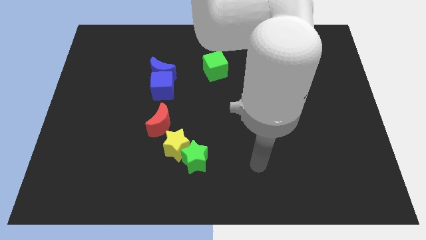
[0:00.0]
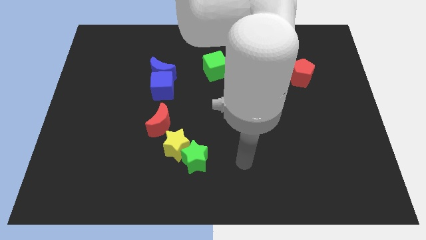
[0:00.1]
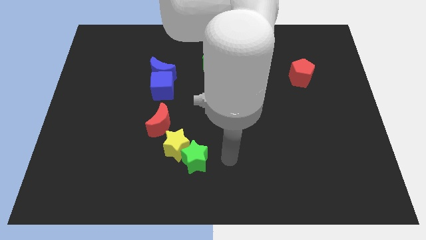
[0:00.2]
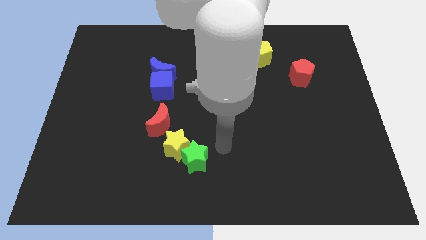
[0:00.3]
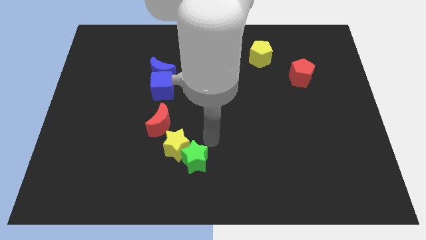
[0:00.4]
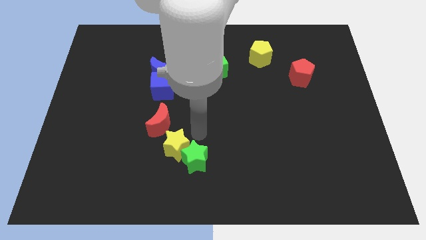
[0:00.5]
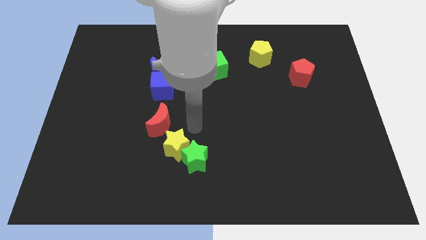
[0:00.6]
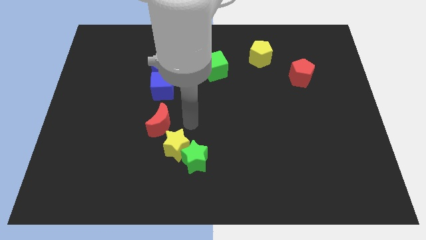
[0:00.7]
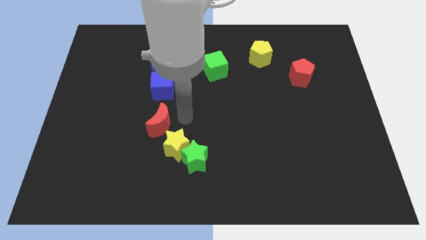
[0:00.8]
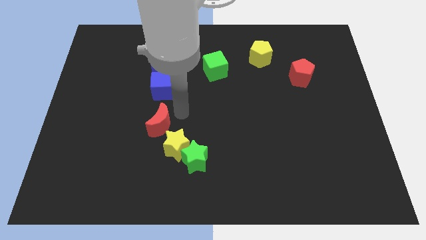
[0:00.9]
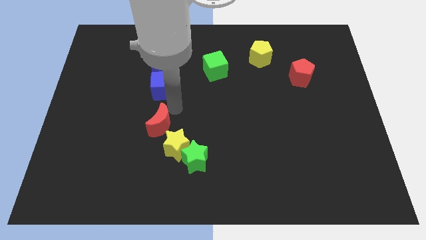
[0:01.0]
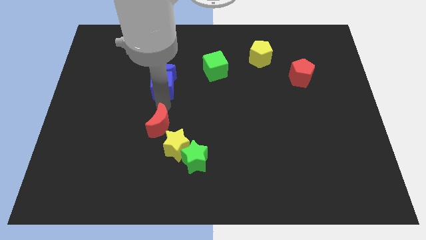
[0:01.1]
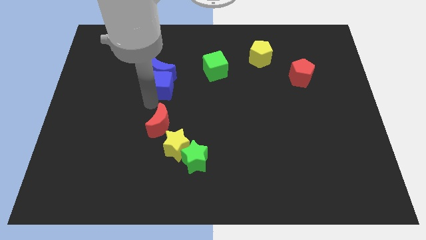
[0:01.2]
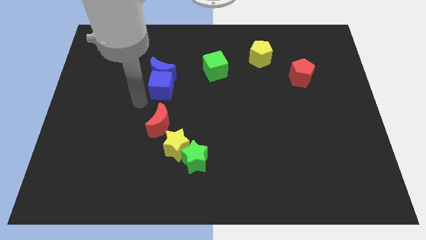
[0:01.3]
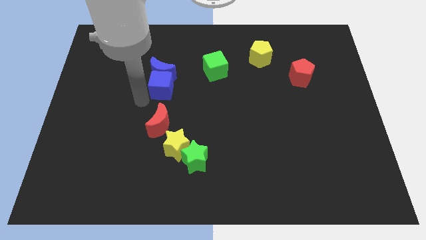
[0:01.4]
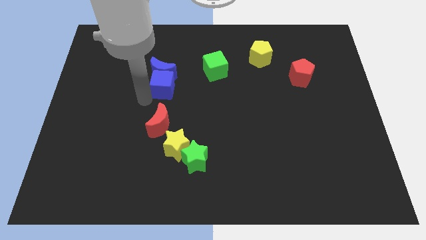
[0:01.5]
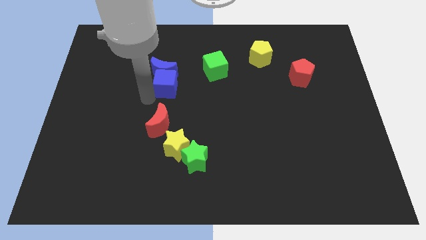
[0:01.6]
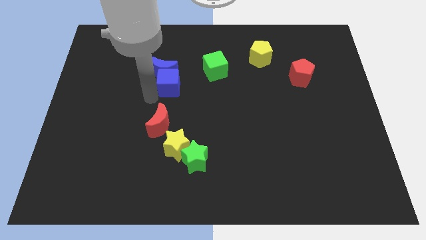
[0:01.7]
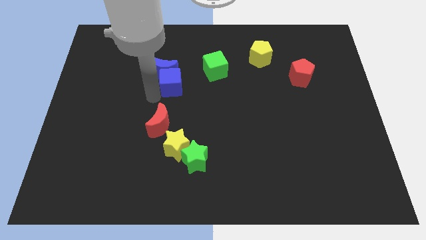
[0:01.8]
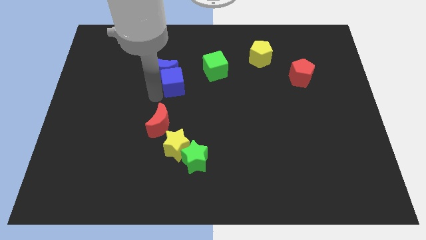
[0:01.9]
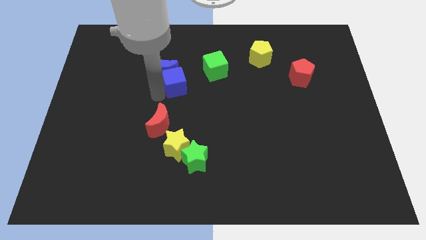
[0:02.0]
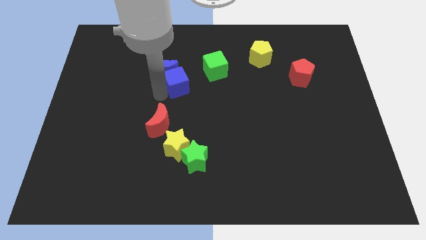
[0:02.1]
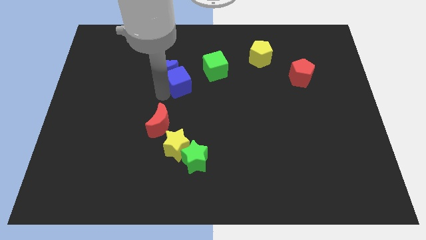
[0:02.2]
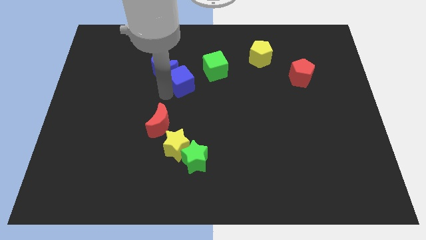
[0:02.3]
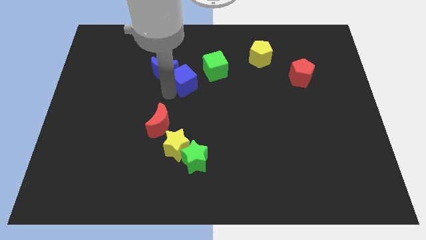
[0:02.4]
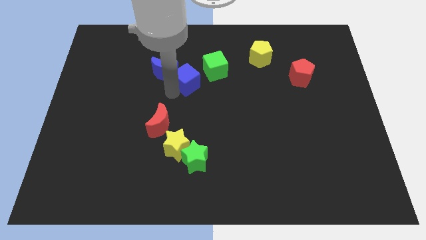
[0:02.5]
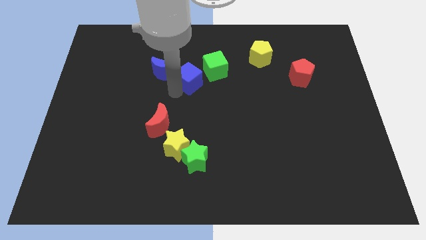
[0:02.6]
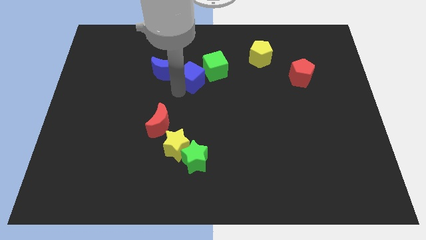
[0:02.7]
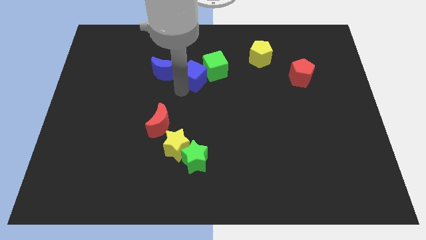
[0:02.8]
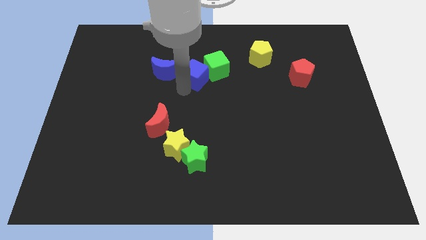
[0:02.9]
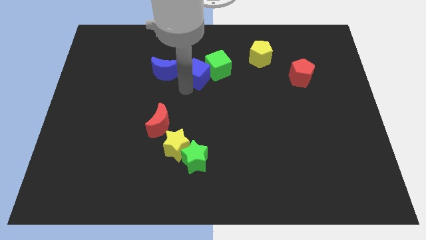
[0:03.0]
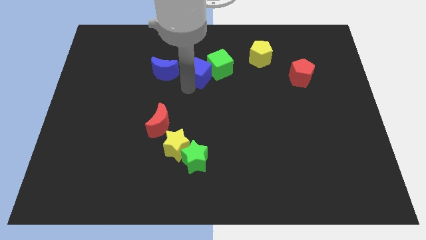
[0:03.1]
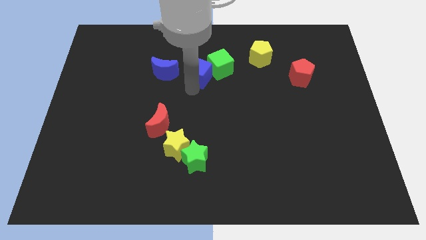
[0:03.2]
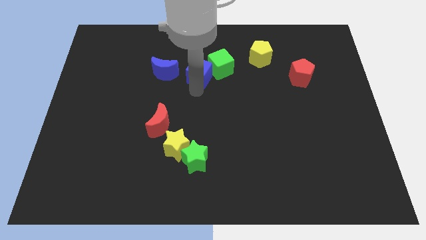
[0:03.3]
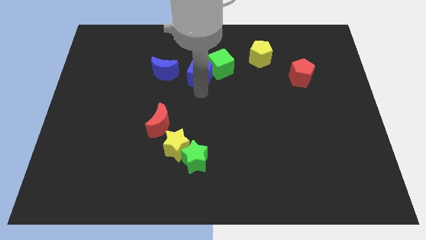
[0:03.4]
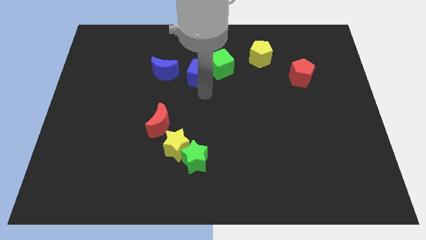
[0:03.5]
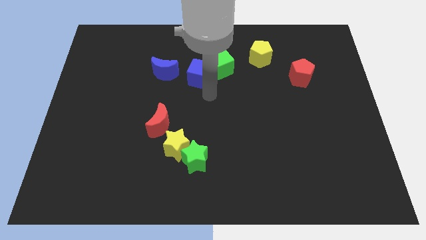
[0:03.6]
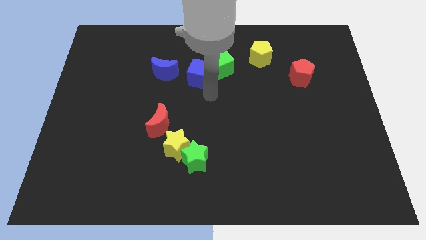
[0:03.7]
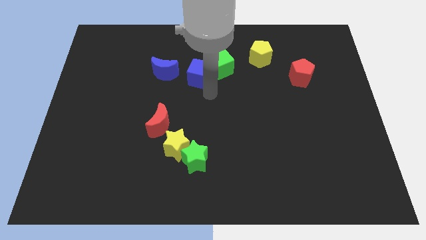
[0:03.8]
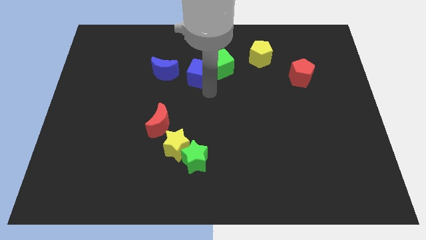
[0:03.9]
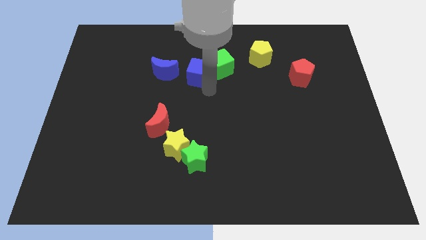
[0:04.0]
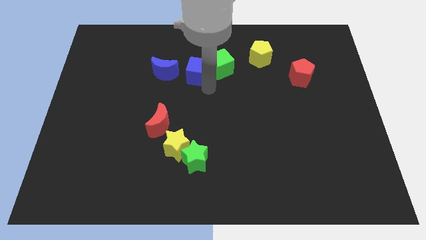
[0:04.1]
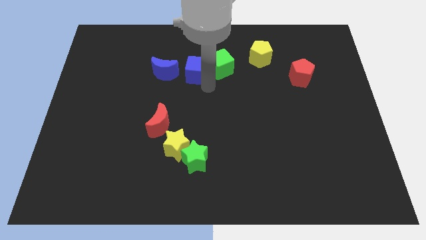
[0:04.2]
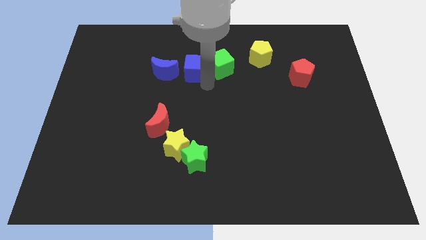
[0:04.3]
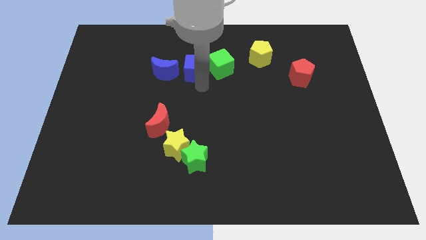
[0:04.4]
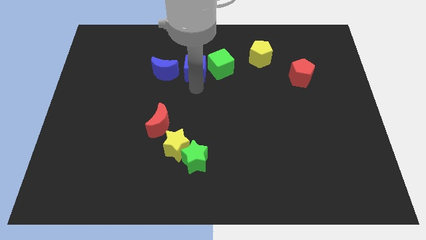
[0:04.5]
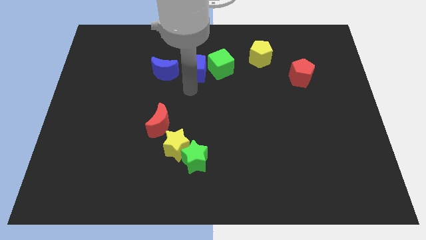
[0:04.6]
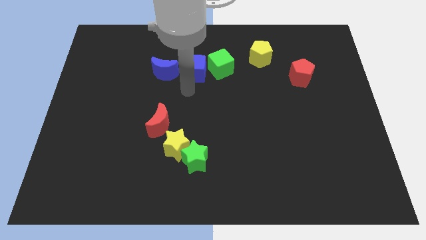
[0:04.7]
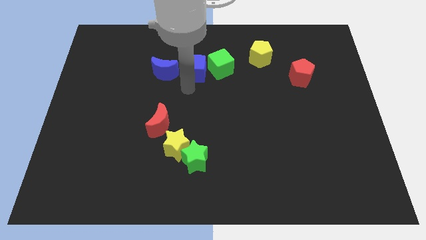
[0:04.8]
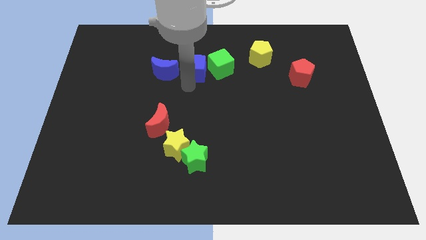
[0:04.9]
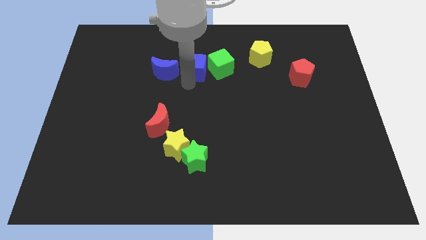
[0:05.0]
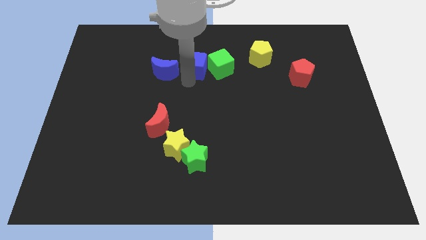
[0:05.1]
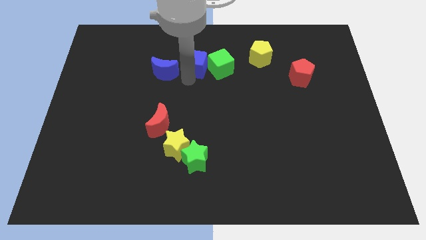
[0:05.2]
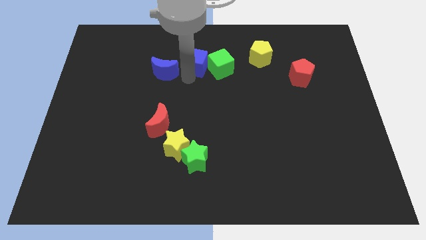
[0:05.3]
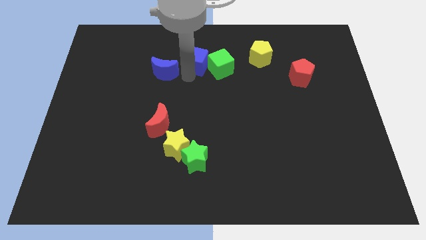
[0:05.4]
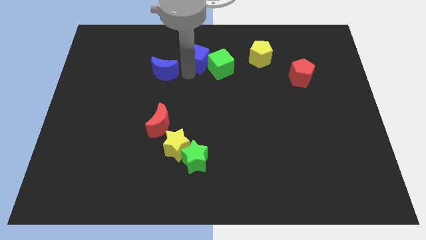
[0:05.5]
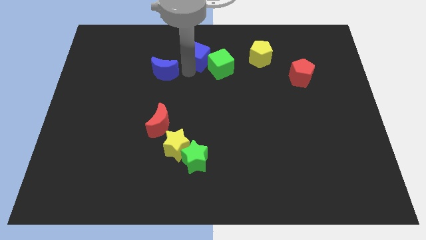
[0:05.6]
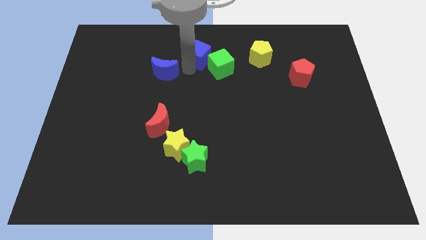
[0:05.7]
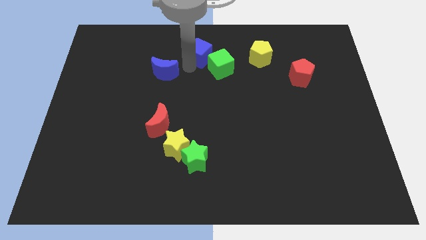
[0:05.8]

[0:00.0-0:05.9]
slide the blue cube to the top side

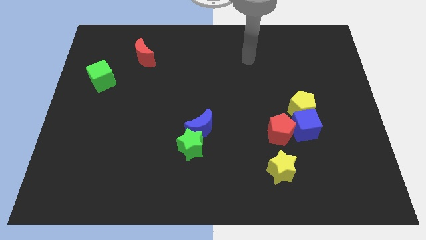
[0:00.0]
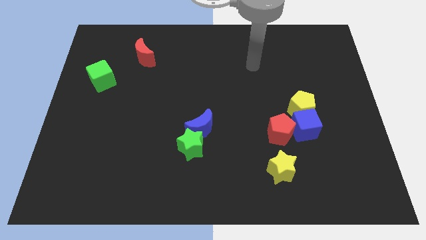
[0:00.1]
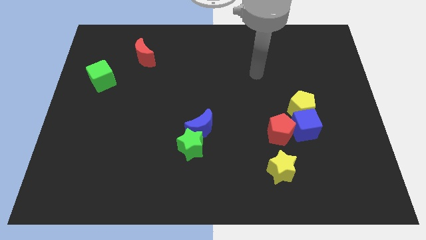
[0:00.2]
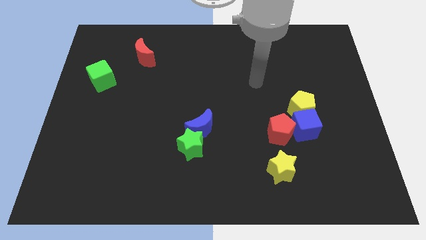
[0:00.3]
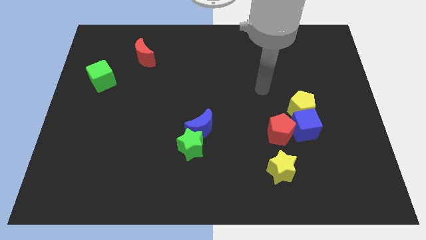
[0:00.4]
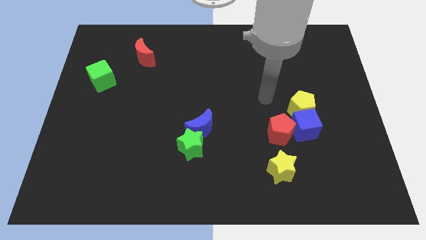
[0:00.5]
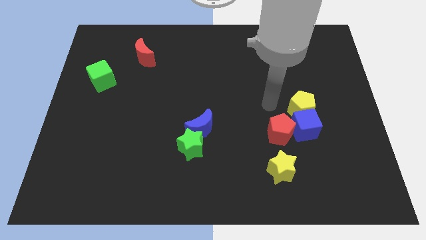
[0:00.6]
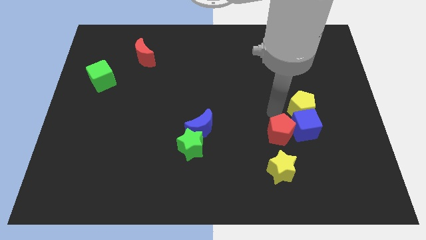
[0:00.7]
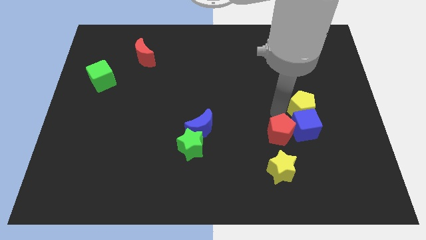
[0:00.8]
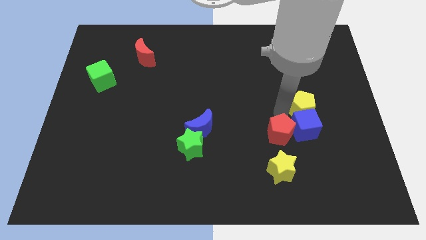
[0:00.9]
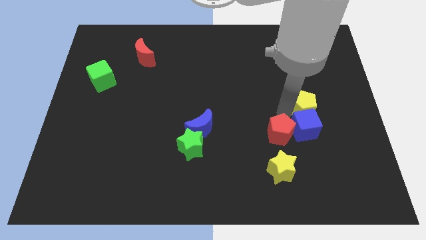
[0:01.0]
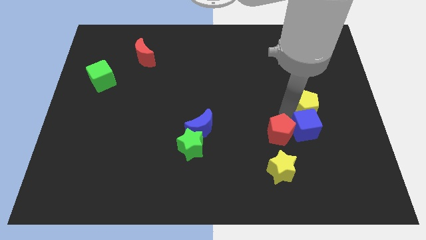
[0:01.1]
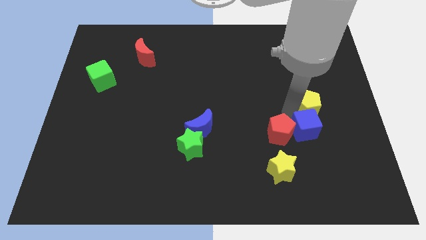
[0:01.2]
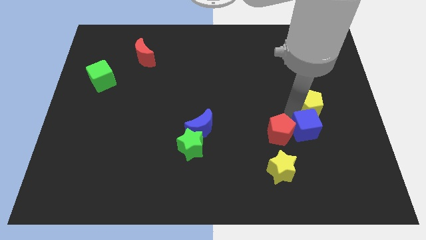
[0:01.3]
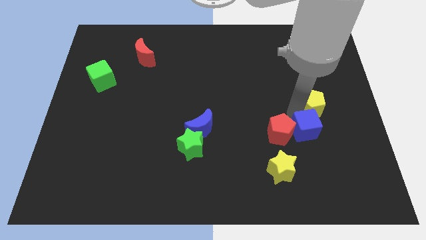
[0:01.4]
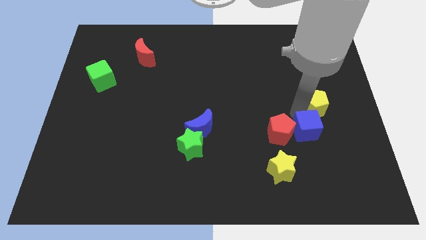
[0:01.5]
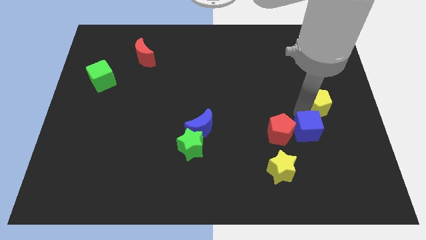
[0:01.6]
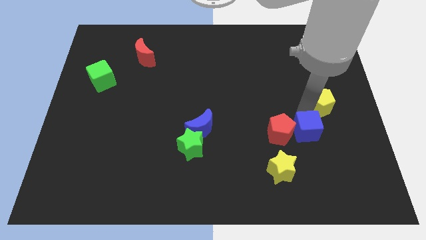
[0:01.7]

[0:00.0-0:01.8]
put the yellow pentagon to the center right
